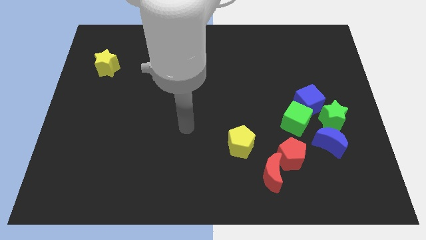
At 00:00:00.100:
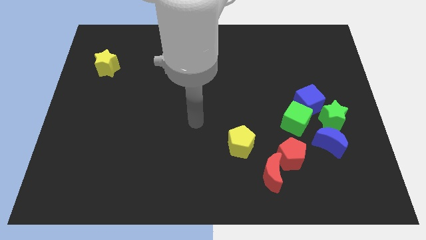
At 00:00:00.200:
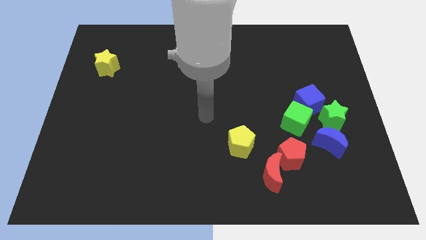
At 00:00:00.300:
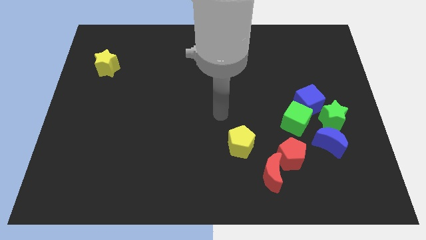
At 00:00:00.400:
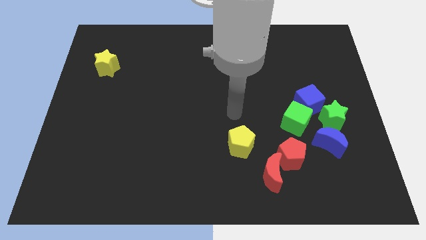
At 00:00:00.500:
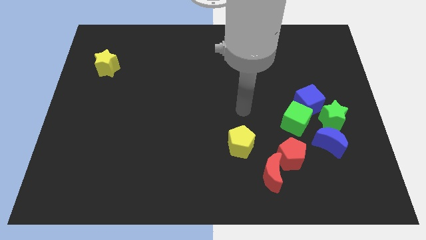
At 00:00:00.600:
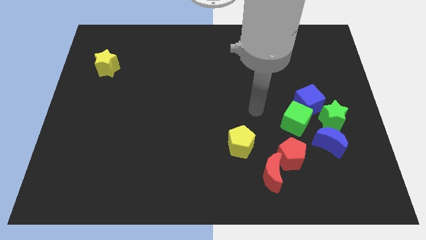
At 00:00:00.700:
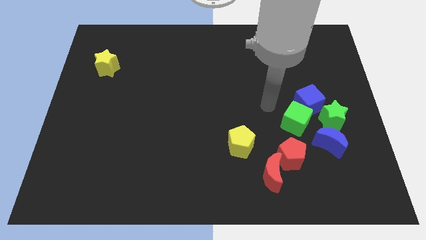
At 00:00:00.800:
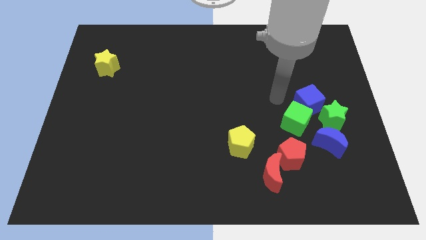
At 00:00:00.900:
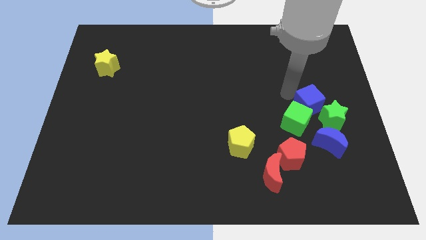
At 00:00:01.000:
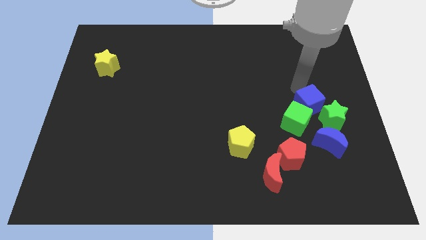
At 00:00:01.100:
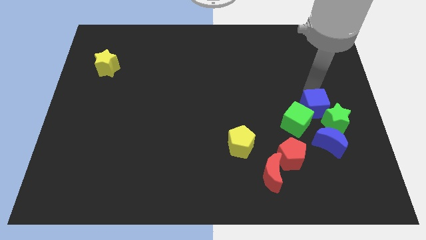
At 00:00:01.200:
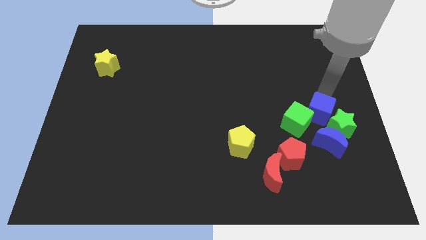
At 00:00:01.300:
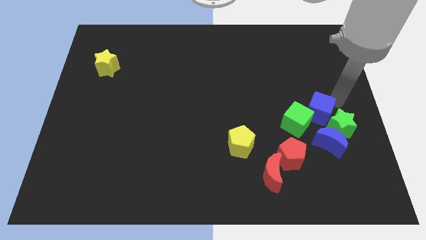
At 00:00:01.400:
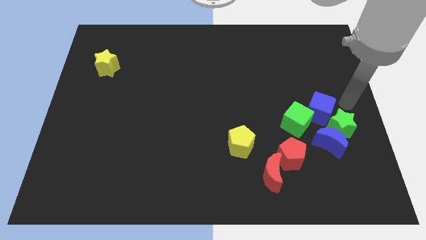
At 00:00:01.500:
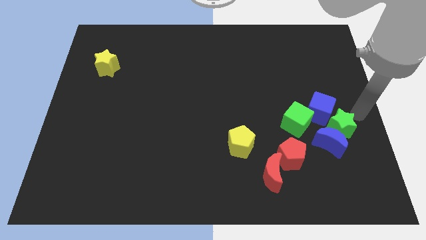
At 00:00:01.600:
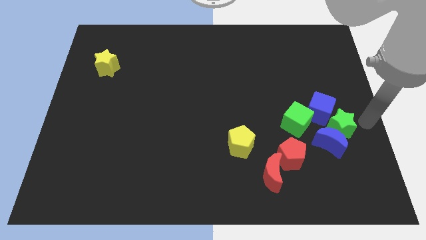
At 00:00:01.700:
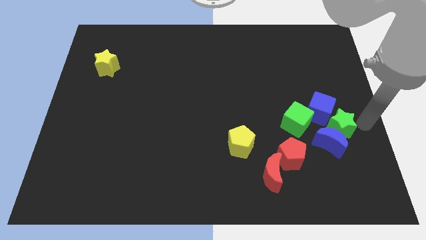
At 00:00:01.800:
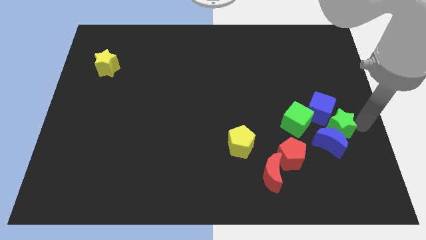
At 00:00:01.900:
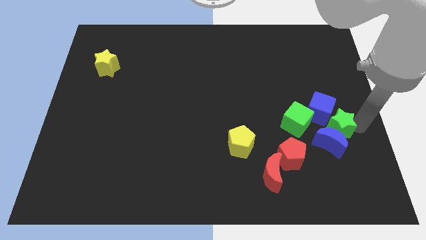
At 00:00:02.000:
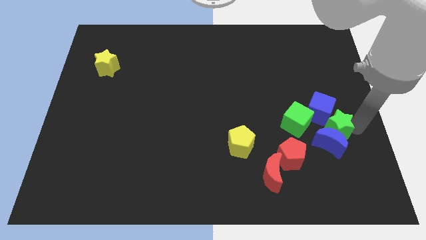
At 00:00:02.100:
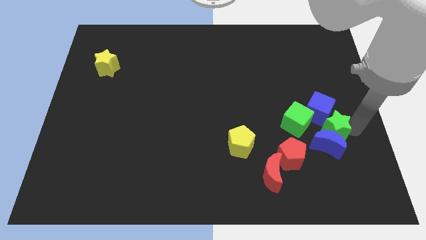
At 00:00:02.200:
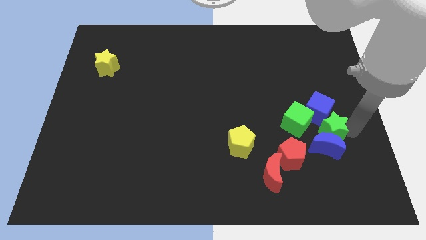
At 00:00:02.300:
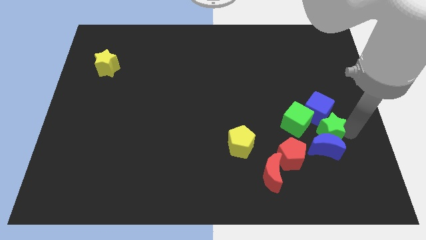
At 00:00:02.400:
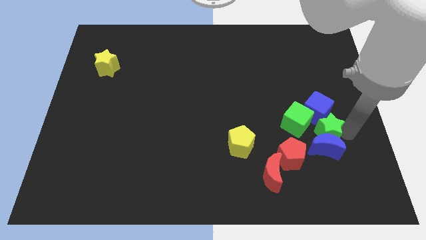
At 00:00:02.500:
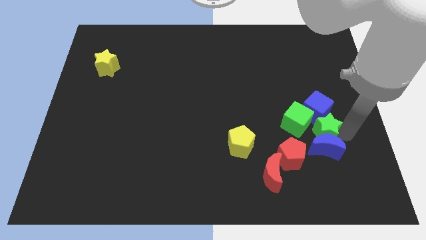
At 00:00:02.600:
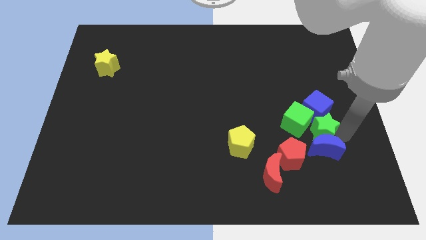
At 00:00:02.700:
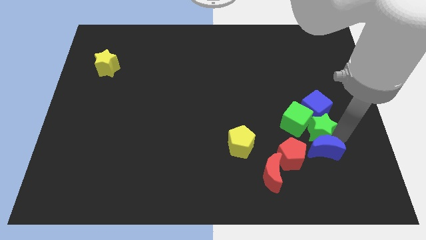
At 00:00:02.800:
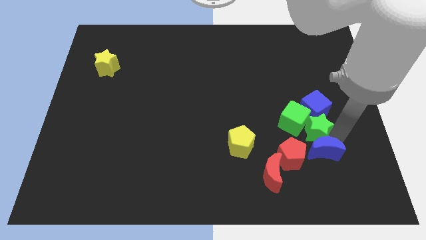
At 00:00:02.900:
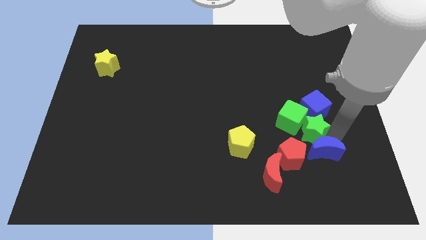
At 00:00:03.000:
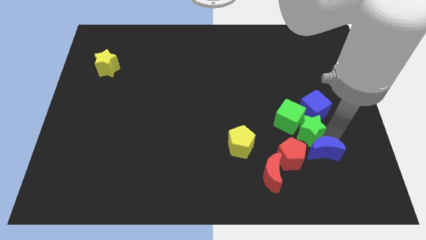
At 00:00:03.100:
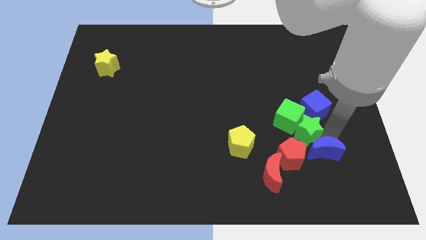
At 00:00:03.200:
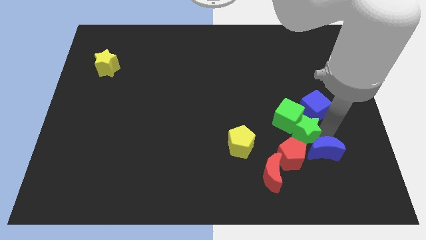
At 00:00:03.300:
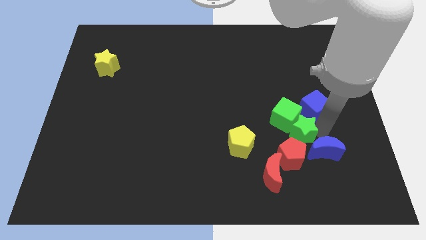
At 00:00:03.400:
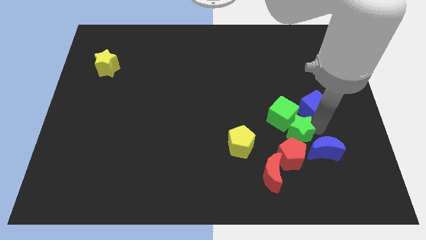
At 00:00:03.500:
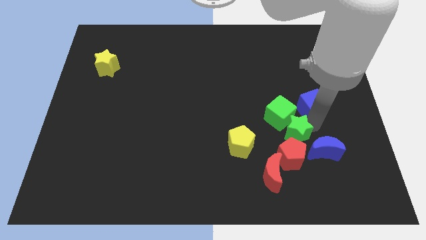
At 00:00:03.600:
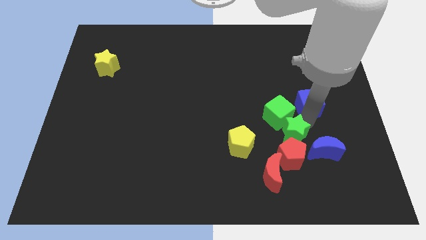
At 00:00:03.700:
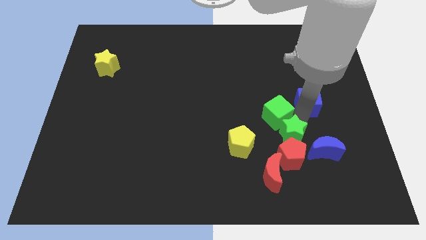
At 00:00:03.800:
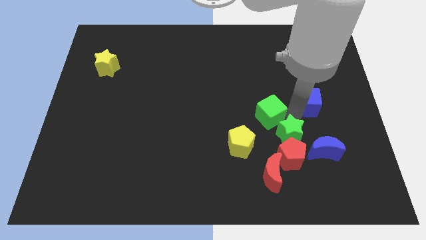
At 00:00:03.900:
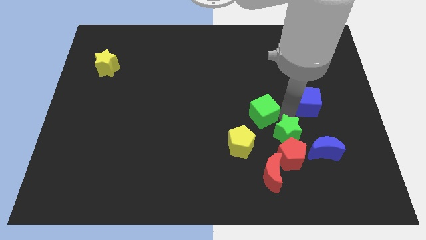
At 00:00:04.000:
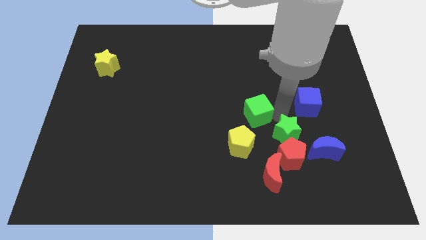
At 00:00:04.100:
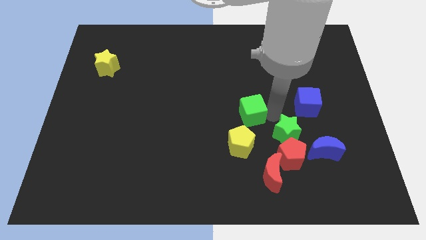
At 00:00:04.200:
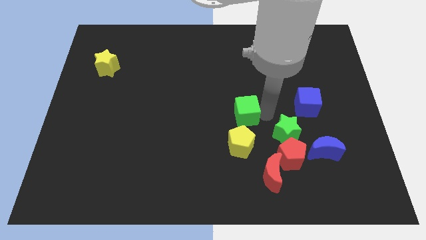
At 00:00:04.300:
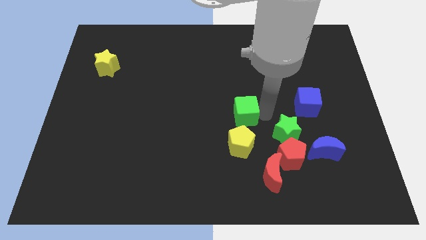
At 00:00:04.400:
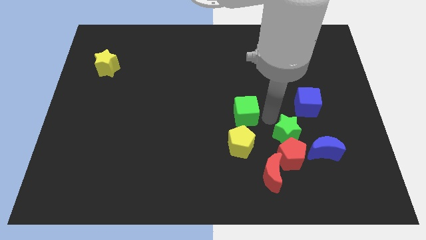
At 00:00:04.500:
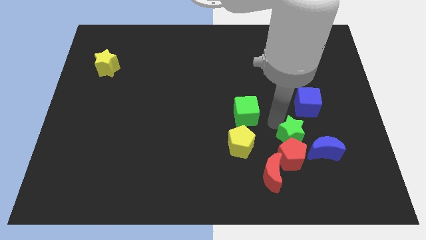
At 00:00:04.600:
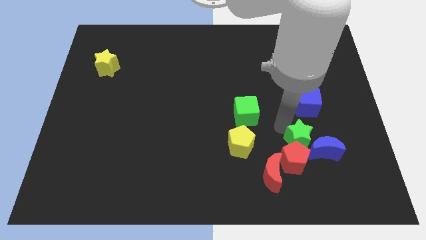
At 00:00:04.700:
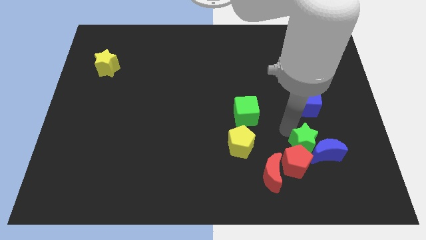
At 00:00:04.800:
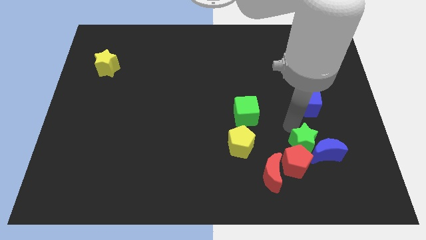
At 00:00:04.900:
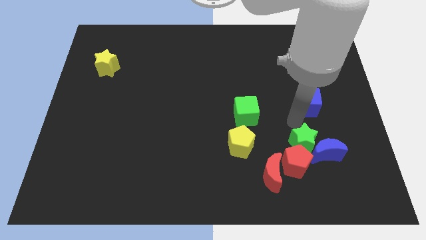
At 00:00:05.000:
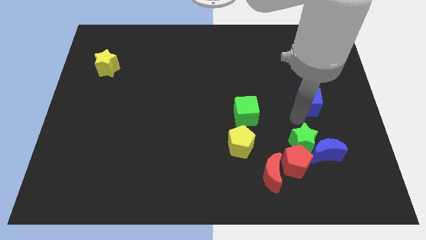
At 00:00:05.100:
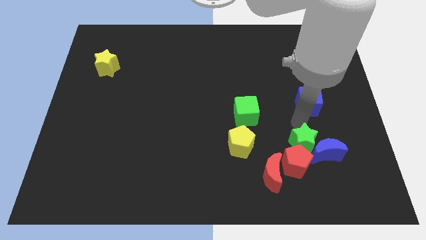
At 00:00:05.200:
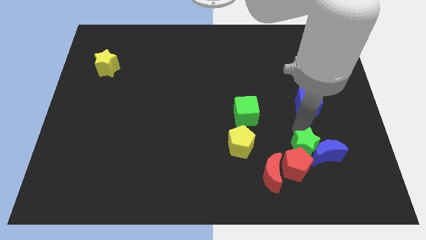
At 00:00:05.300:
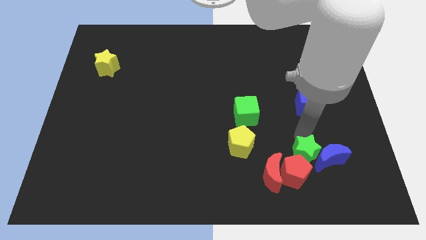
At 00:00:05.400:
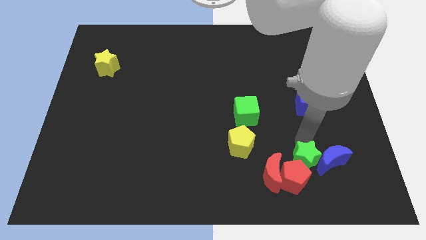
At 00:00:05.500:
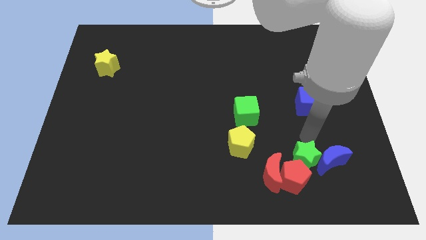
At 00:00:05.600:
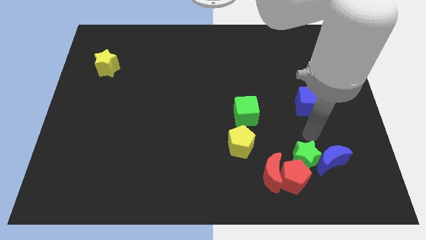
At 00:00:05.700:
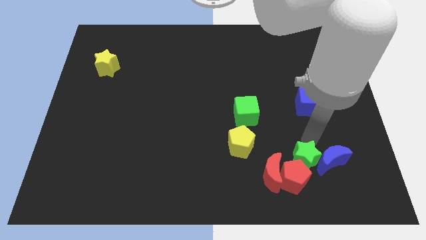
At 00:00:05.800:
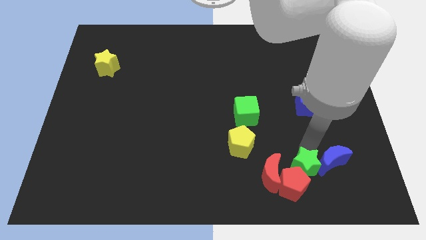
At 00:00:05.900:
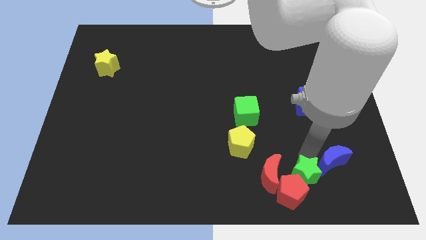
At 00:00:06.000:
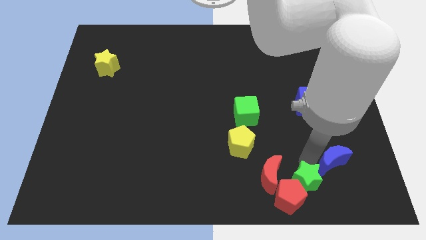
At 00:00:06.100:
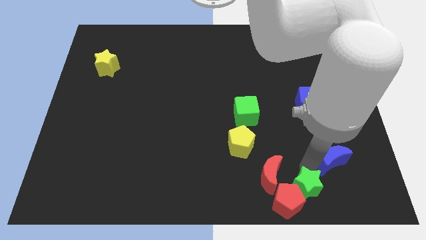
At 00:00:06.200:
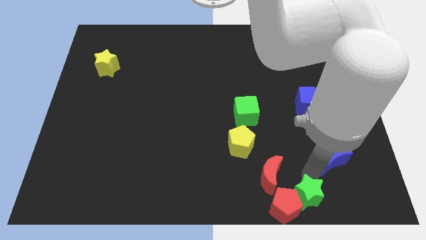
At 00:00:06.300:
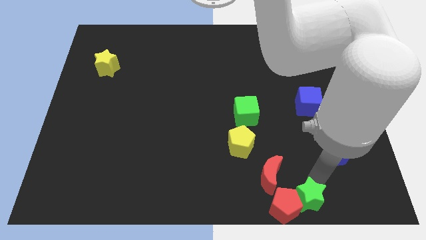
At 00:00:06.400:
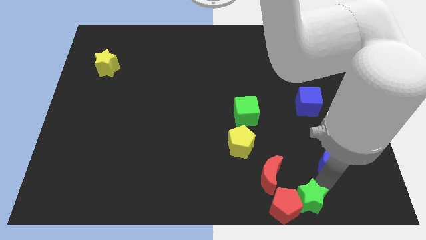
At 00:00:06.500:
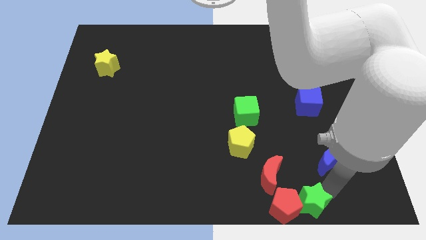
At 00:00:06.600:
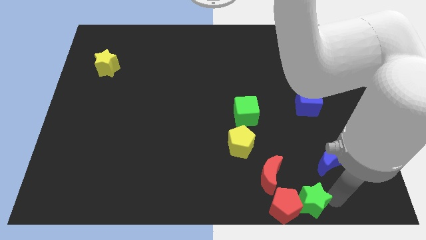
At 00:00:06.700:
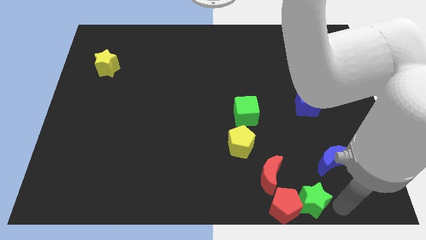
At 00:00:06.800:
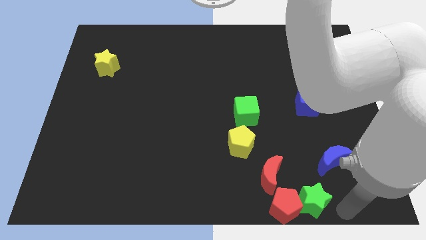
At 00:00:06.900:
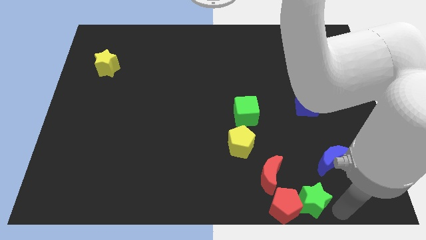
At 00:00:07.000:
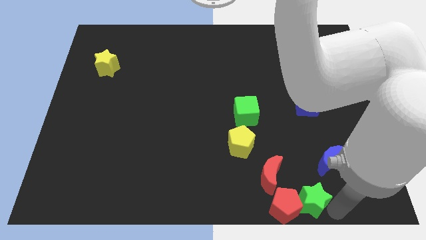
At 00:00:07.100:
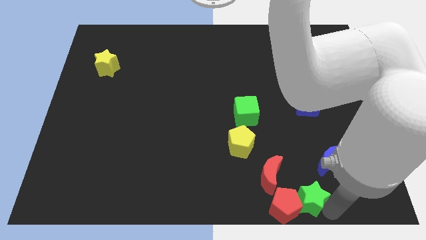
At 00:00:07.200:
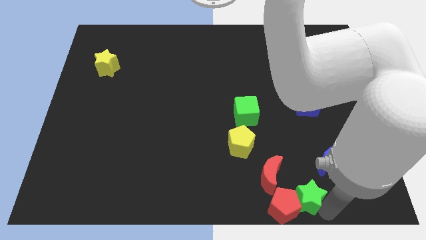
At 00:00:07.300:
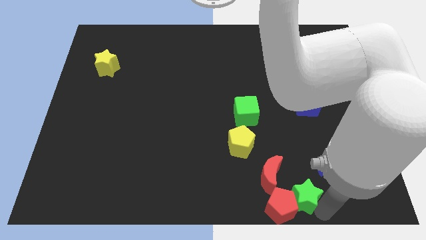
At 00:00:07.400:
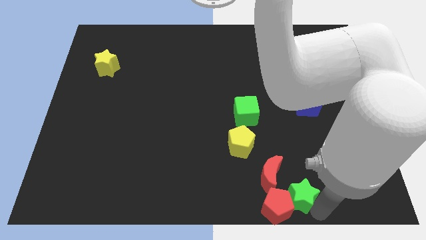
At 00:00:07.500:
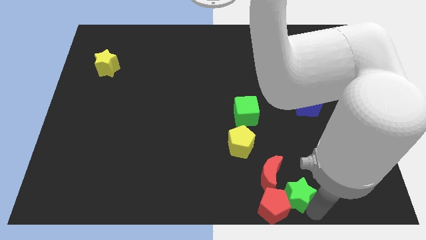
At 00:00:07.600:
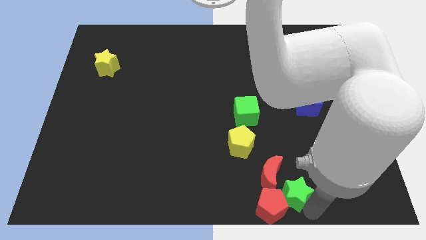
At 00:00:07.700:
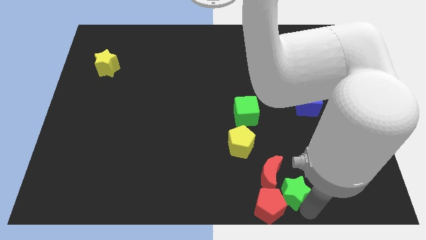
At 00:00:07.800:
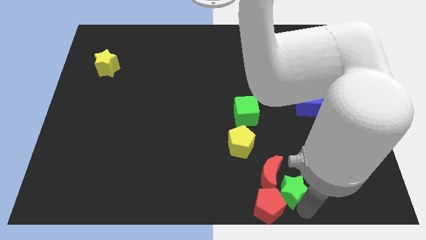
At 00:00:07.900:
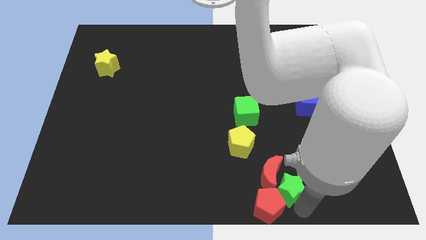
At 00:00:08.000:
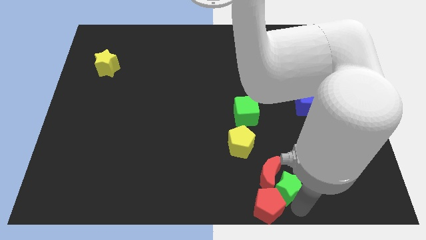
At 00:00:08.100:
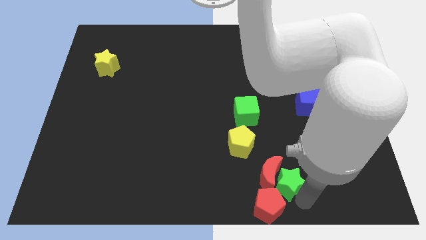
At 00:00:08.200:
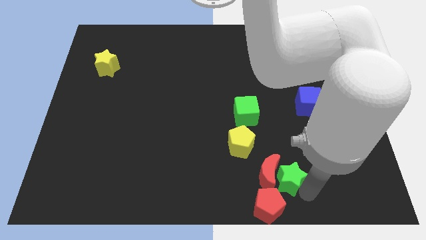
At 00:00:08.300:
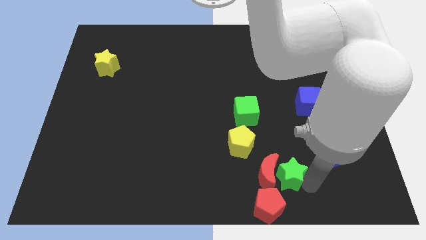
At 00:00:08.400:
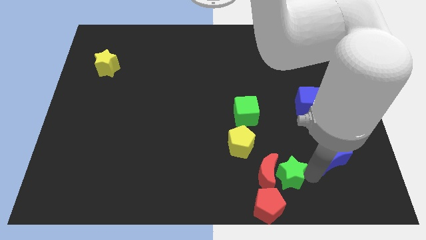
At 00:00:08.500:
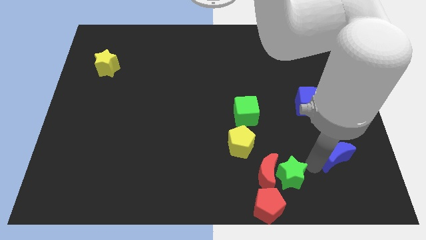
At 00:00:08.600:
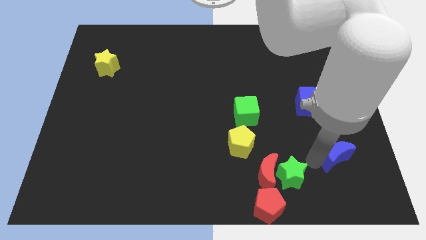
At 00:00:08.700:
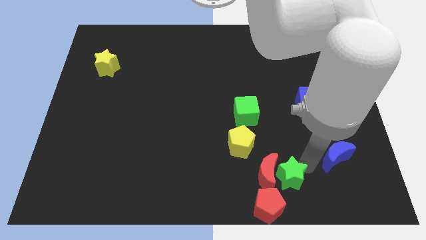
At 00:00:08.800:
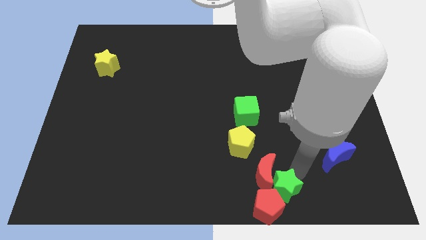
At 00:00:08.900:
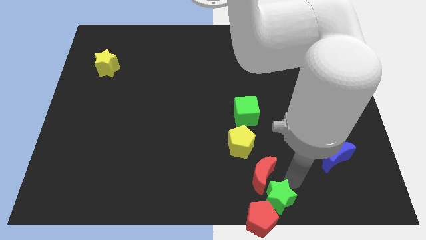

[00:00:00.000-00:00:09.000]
move the green star to the bottom
